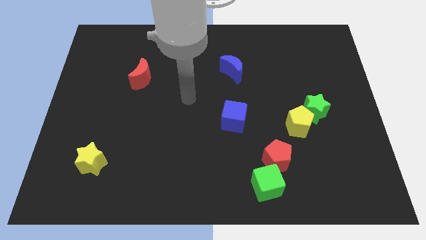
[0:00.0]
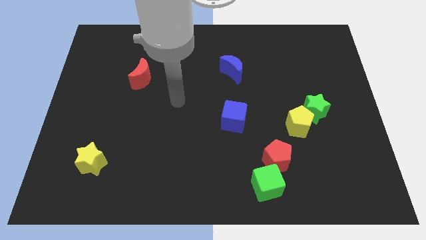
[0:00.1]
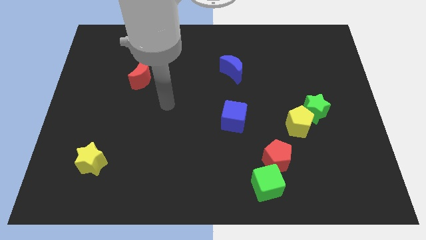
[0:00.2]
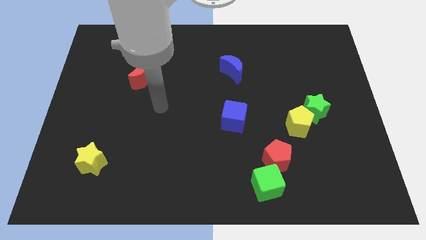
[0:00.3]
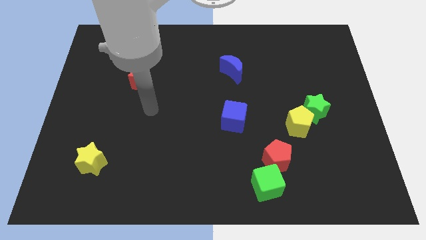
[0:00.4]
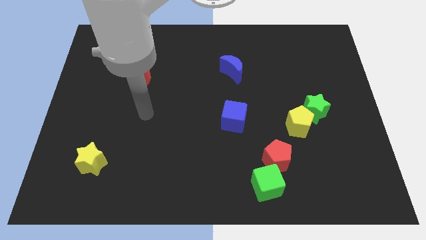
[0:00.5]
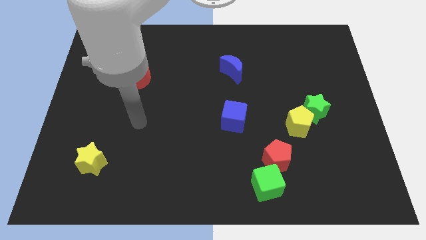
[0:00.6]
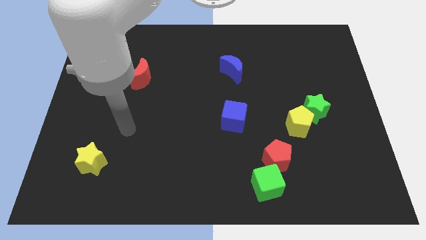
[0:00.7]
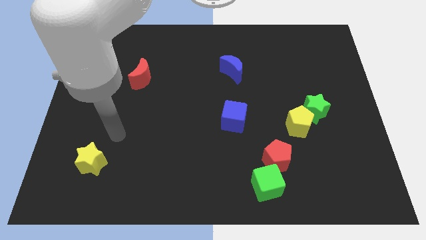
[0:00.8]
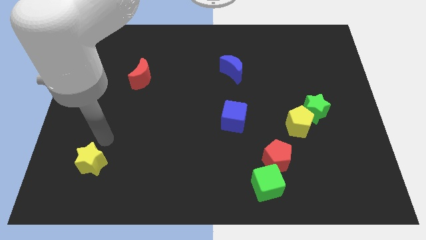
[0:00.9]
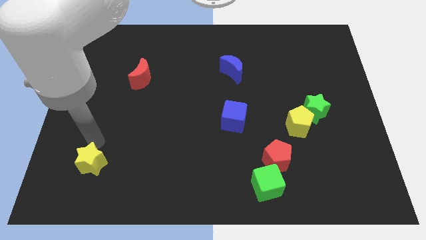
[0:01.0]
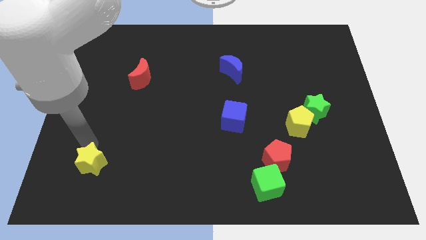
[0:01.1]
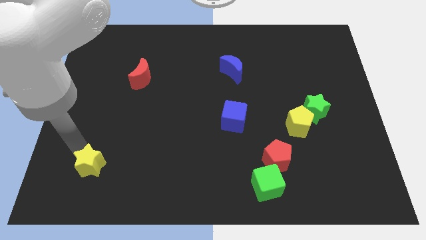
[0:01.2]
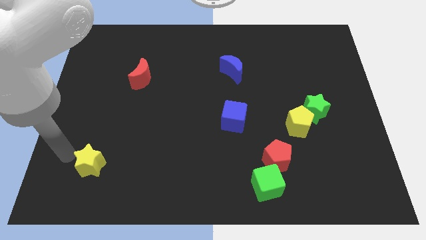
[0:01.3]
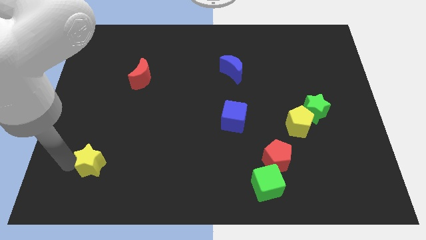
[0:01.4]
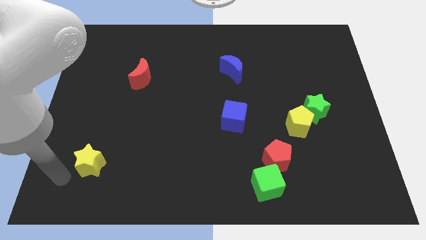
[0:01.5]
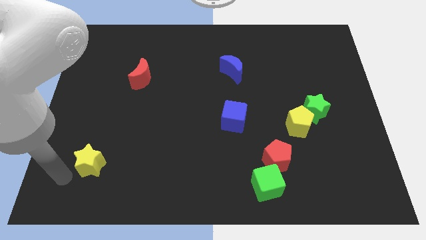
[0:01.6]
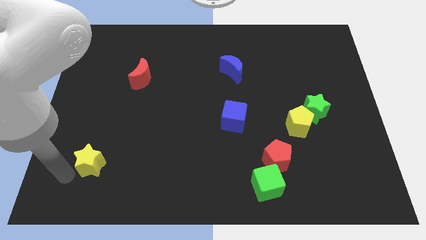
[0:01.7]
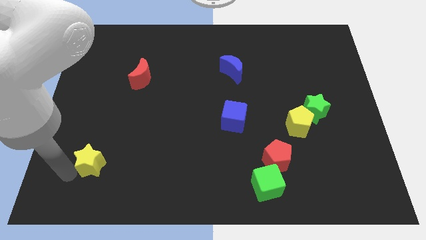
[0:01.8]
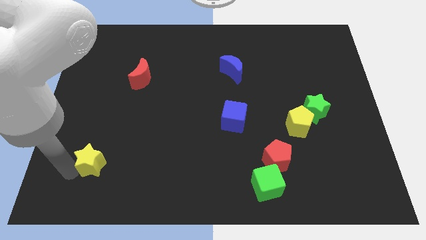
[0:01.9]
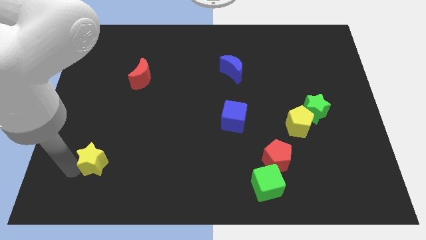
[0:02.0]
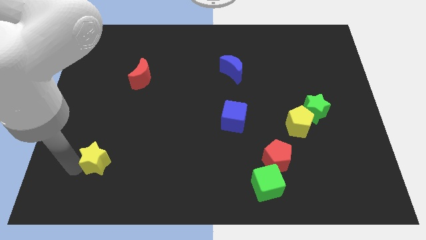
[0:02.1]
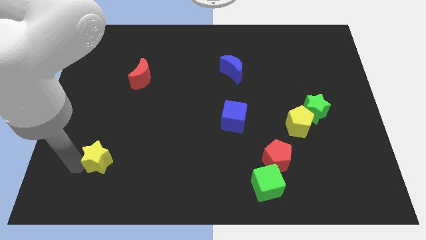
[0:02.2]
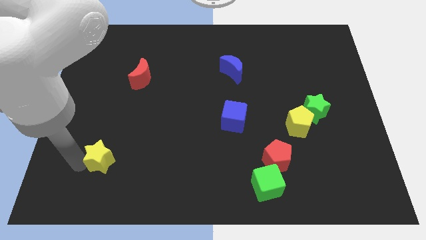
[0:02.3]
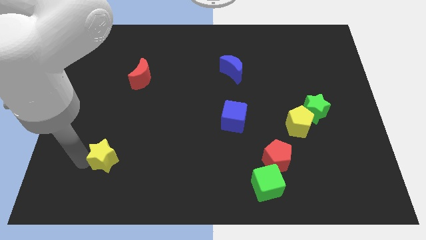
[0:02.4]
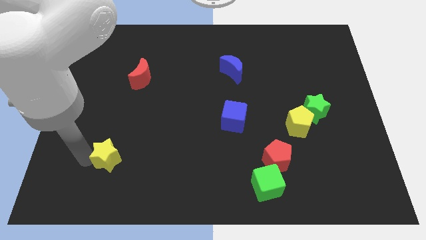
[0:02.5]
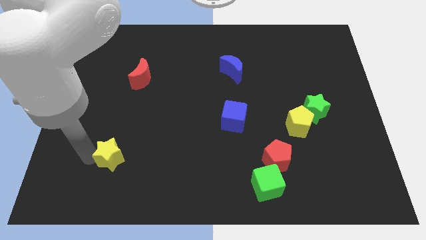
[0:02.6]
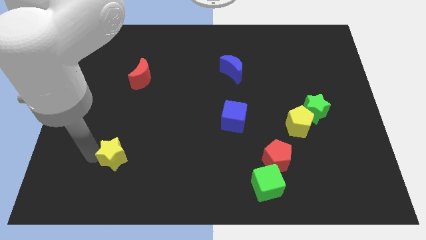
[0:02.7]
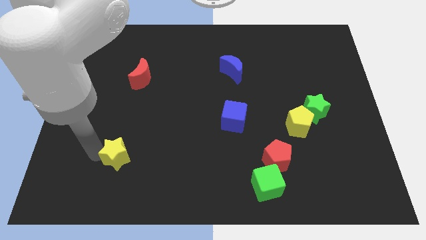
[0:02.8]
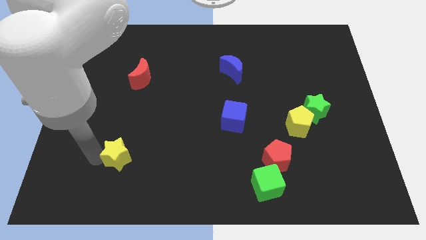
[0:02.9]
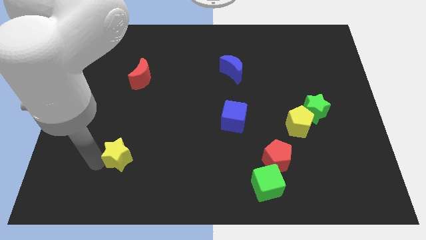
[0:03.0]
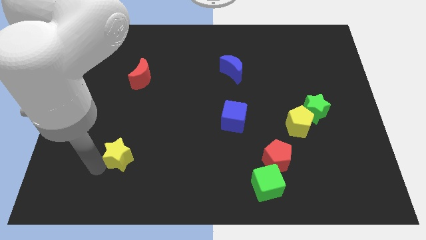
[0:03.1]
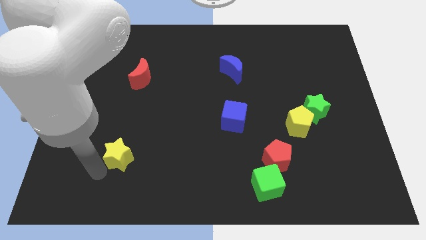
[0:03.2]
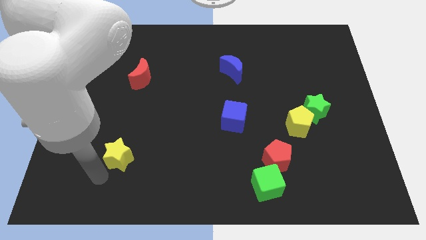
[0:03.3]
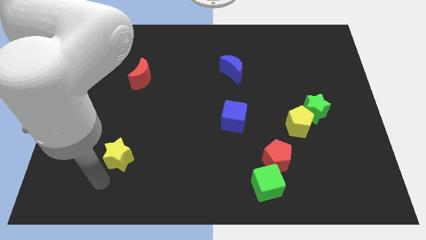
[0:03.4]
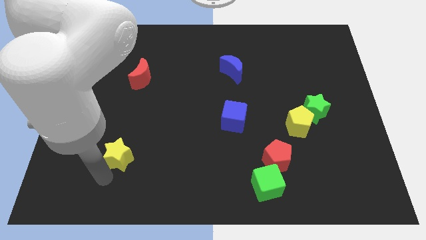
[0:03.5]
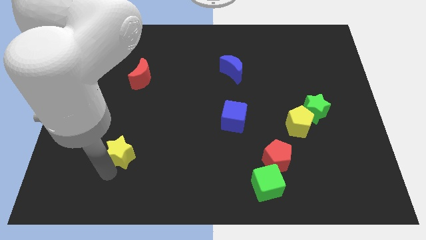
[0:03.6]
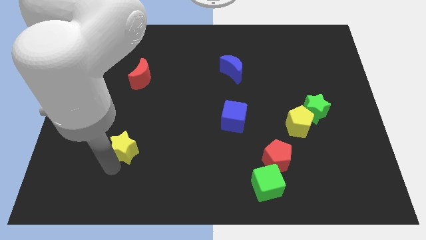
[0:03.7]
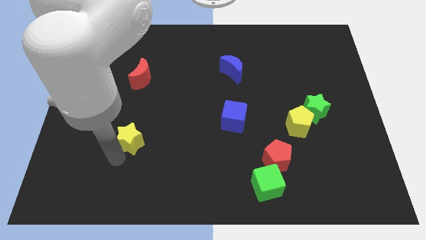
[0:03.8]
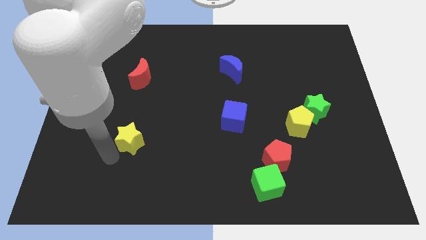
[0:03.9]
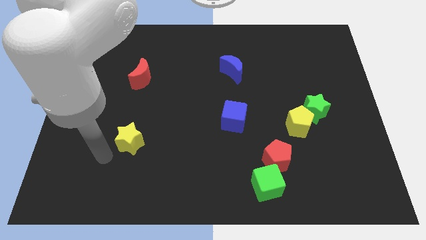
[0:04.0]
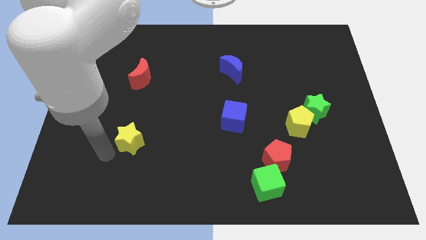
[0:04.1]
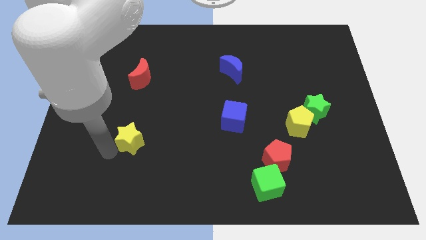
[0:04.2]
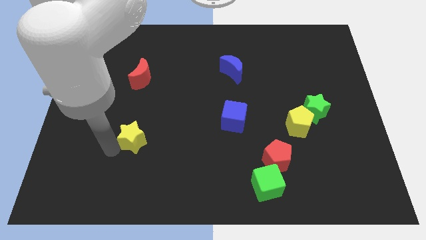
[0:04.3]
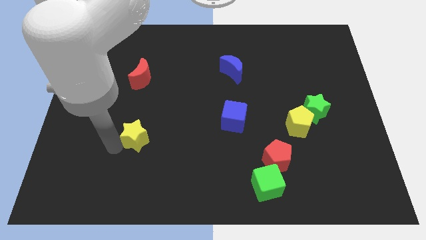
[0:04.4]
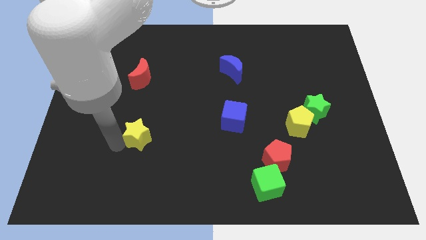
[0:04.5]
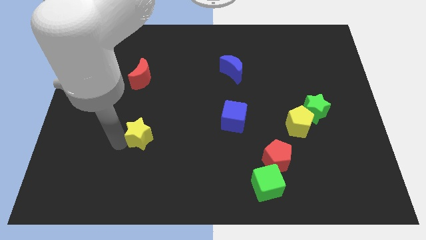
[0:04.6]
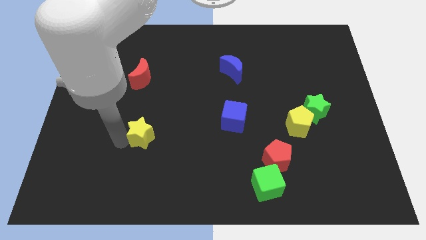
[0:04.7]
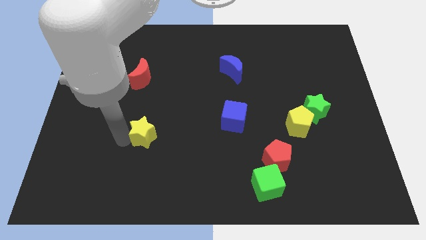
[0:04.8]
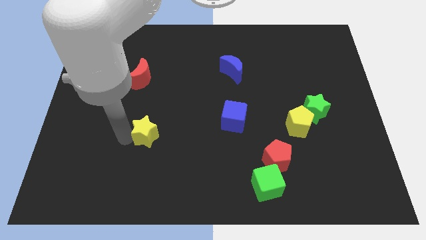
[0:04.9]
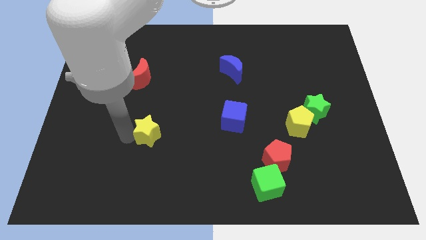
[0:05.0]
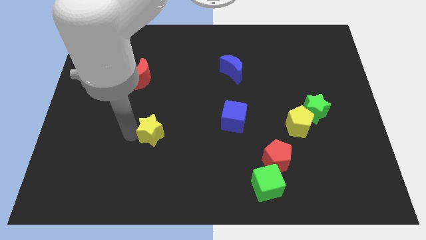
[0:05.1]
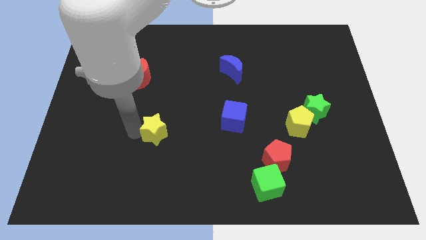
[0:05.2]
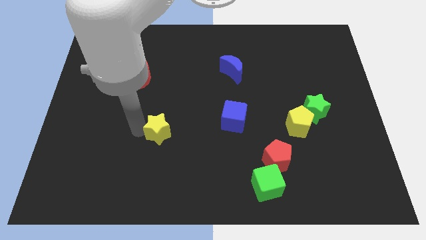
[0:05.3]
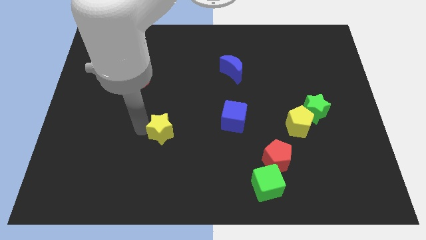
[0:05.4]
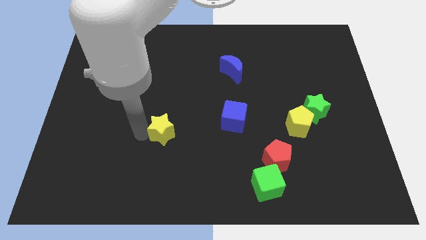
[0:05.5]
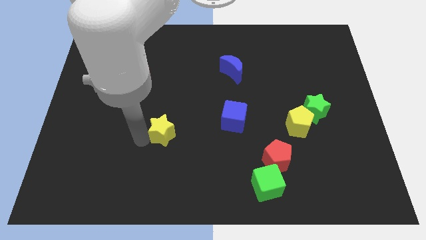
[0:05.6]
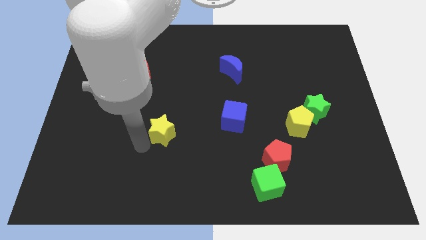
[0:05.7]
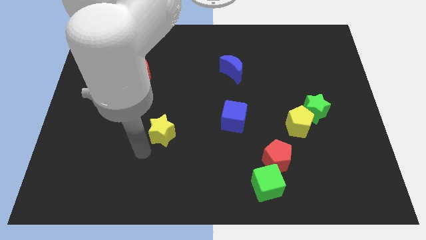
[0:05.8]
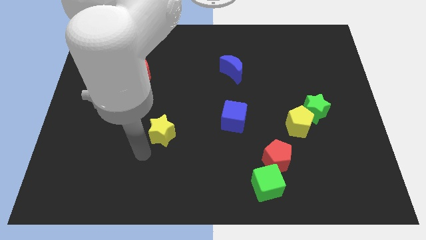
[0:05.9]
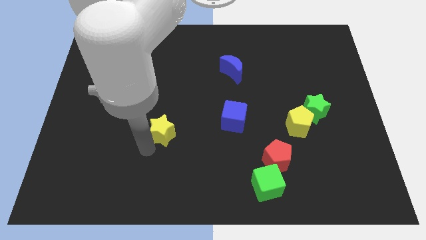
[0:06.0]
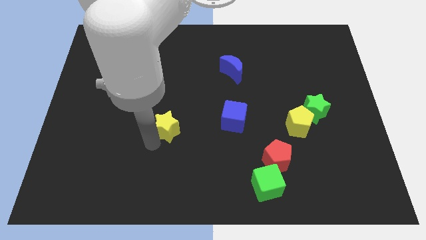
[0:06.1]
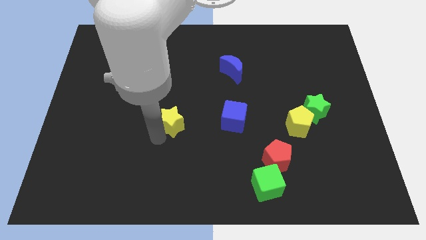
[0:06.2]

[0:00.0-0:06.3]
move the yellow star to the middle

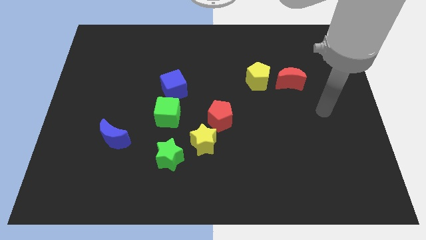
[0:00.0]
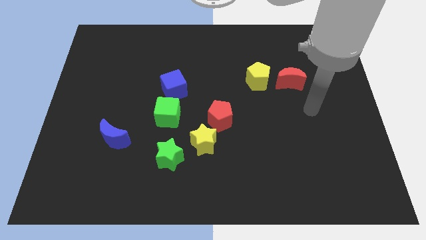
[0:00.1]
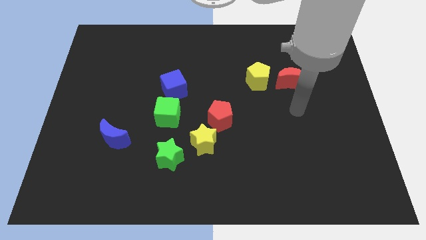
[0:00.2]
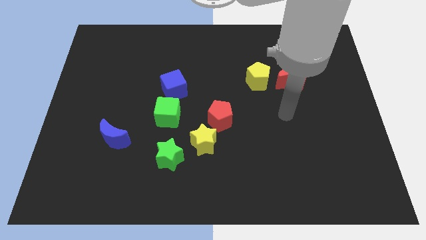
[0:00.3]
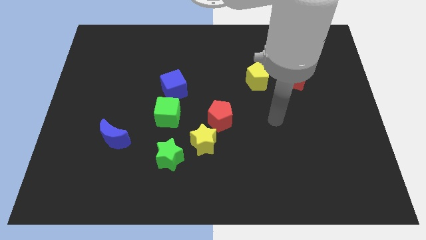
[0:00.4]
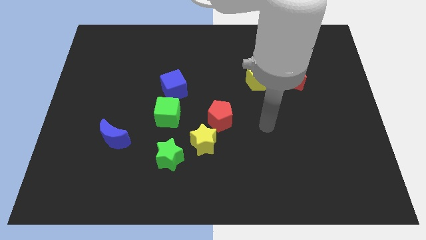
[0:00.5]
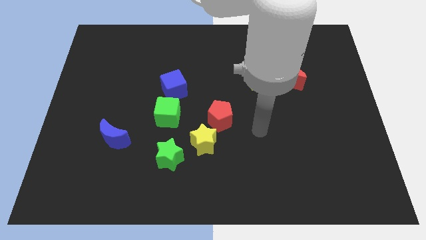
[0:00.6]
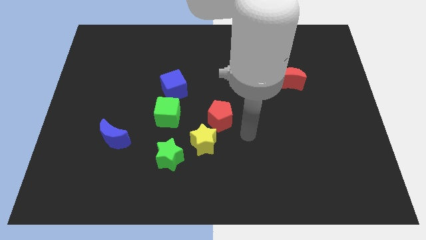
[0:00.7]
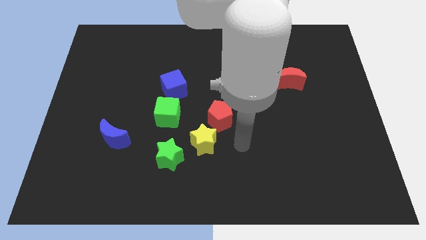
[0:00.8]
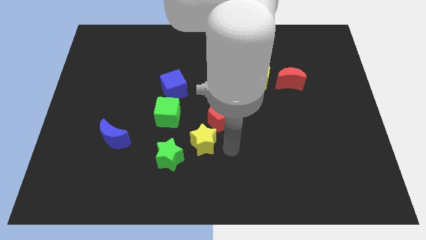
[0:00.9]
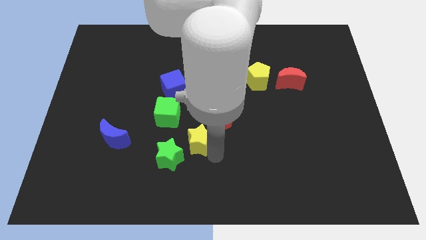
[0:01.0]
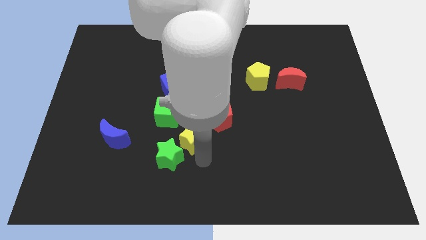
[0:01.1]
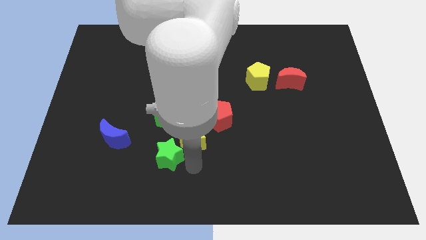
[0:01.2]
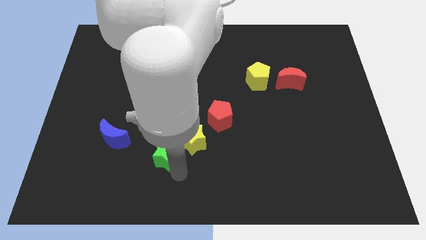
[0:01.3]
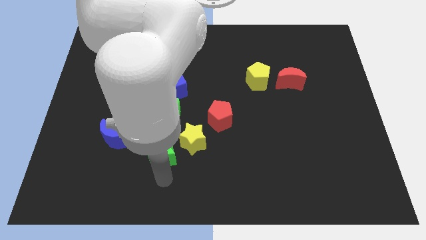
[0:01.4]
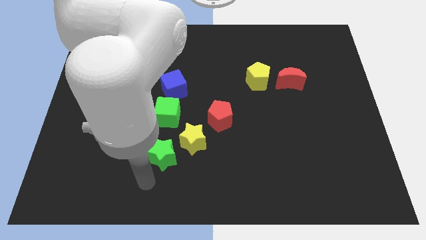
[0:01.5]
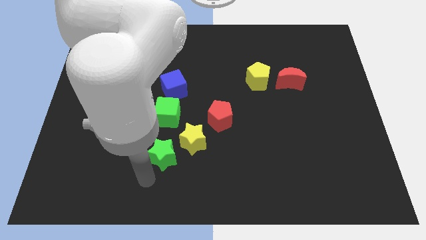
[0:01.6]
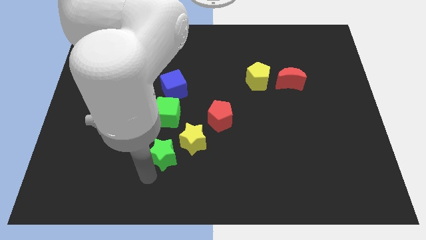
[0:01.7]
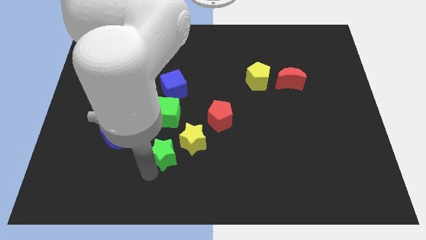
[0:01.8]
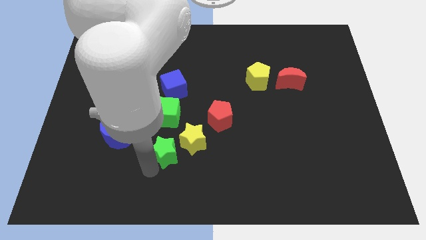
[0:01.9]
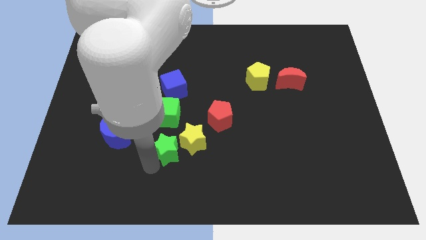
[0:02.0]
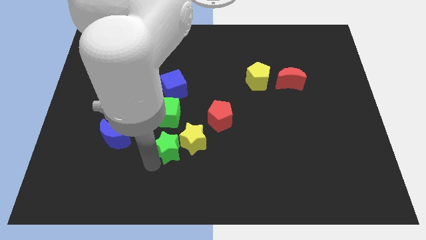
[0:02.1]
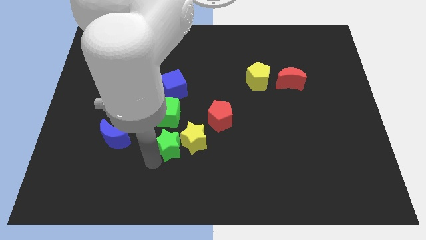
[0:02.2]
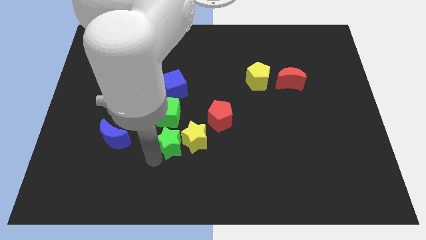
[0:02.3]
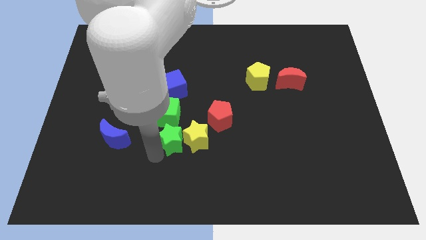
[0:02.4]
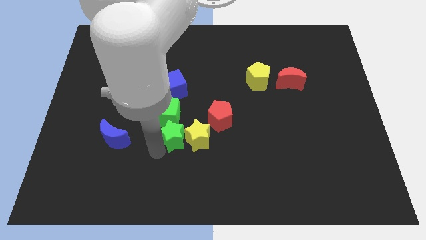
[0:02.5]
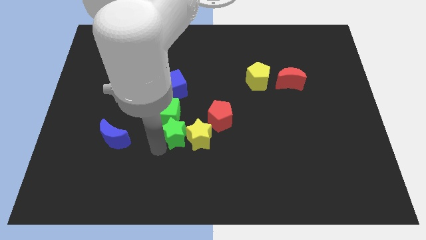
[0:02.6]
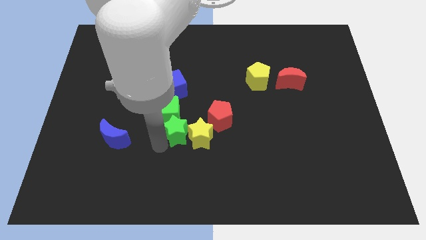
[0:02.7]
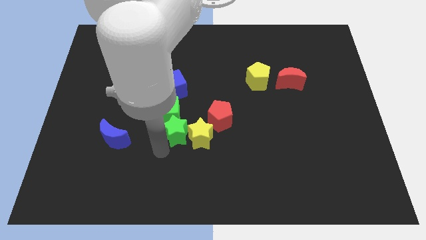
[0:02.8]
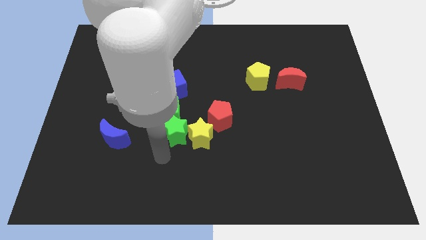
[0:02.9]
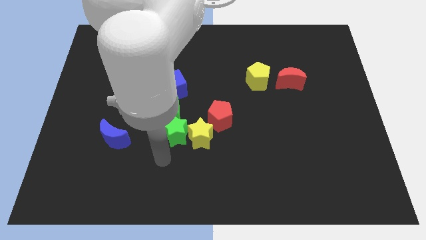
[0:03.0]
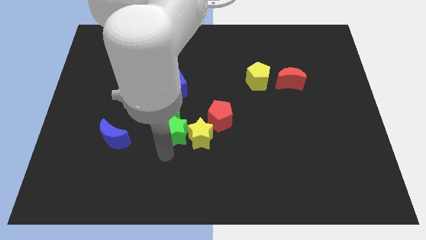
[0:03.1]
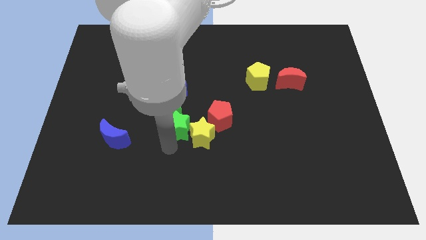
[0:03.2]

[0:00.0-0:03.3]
put the green star to the center of the board
